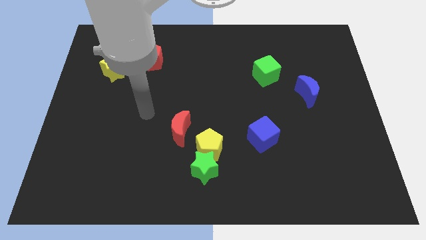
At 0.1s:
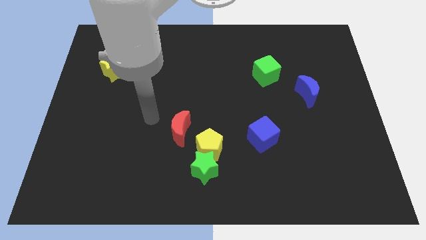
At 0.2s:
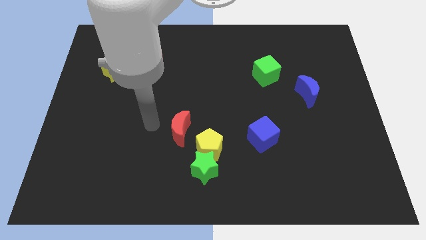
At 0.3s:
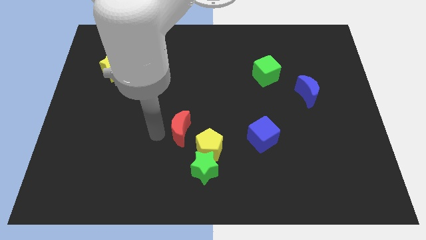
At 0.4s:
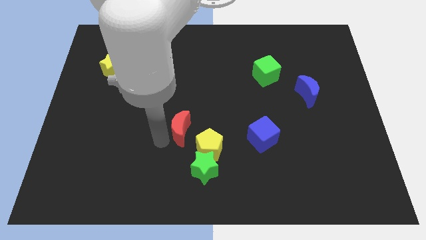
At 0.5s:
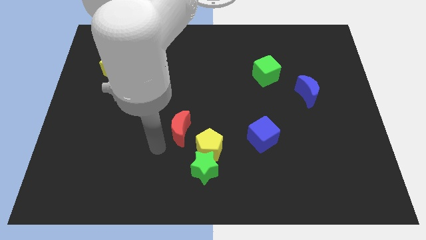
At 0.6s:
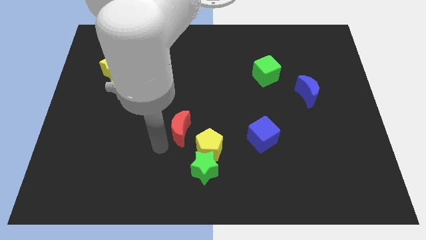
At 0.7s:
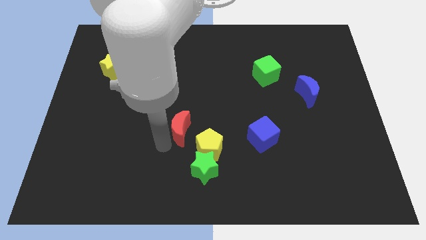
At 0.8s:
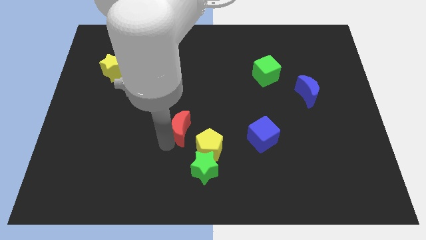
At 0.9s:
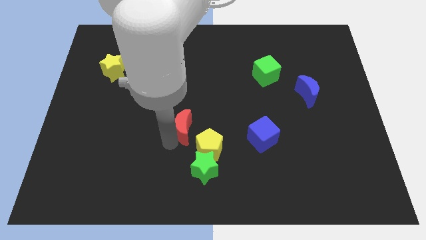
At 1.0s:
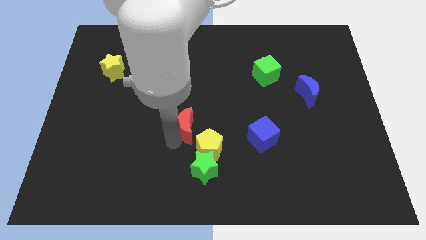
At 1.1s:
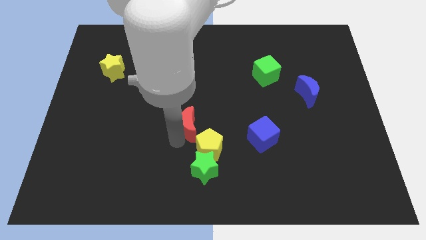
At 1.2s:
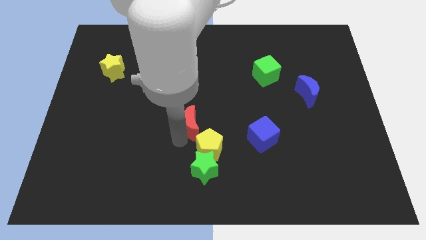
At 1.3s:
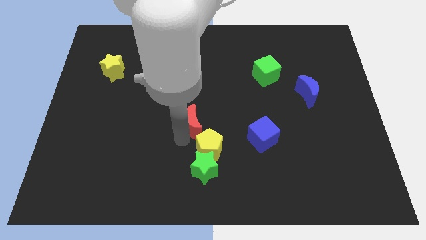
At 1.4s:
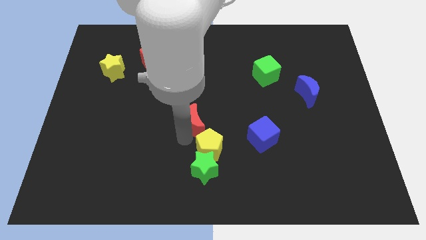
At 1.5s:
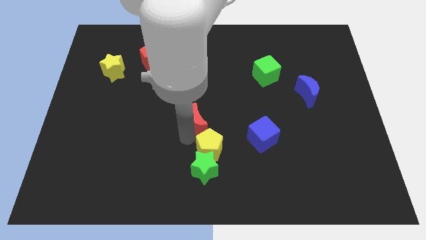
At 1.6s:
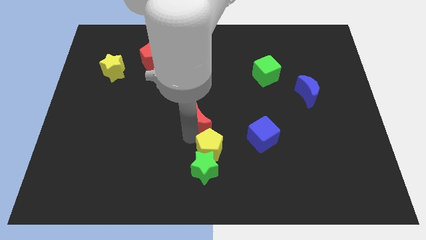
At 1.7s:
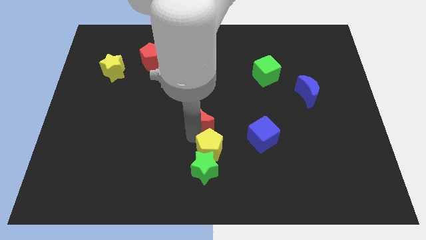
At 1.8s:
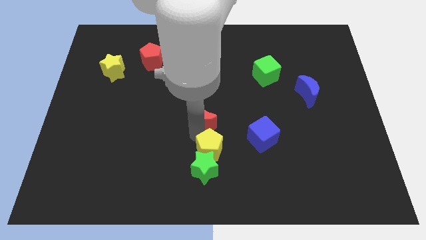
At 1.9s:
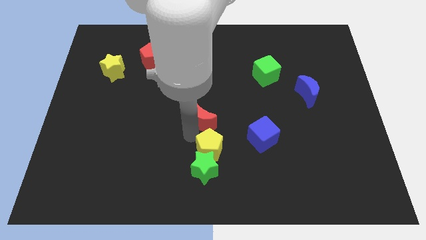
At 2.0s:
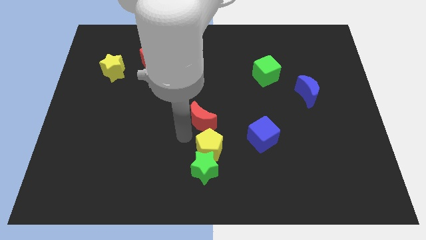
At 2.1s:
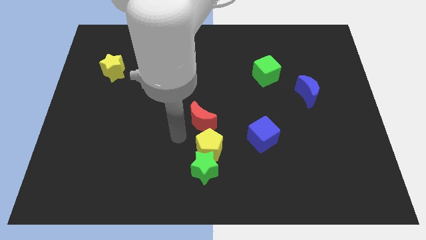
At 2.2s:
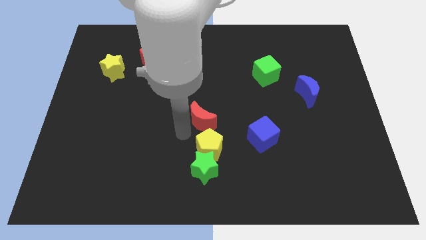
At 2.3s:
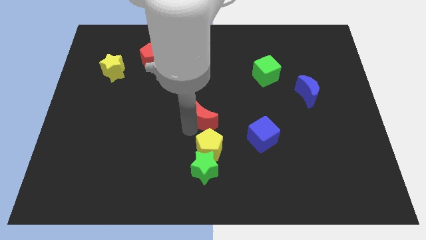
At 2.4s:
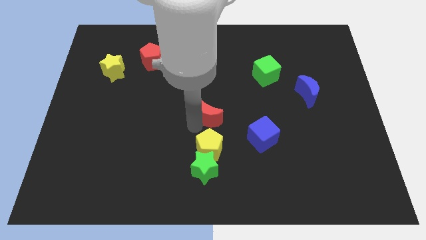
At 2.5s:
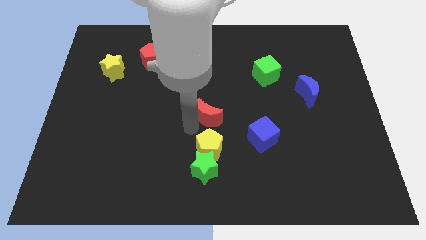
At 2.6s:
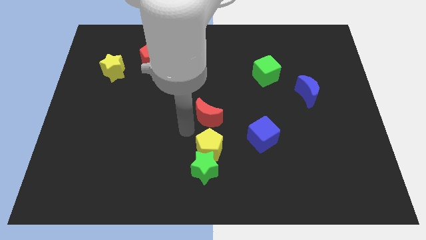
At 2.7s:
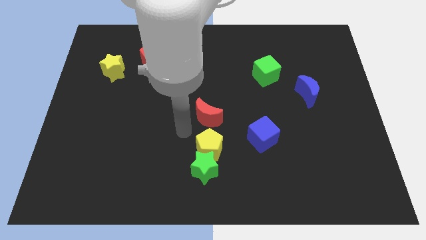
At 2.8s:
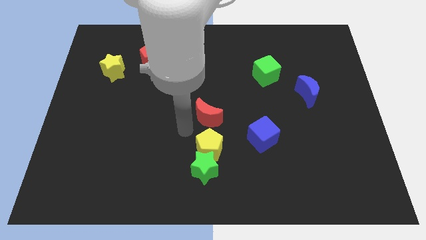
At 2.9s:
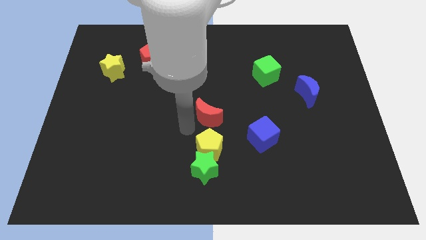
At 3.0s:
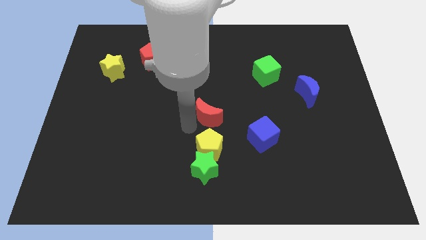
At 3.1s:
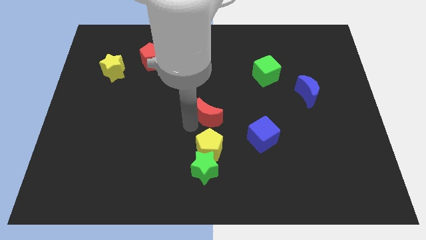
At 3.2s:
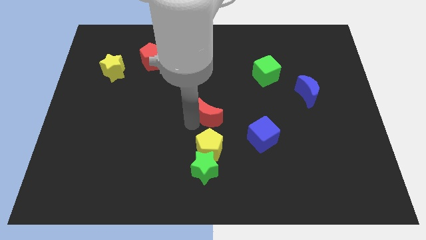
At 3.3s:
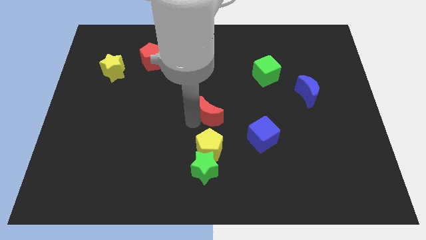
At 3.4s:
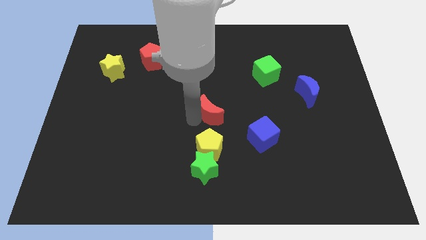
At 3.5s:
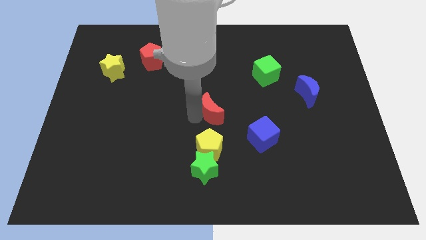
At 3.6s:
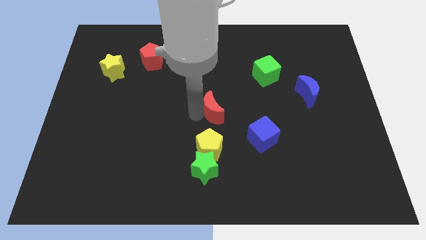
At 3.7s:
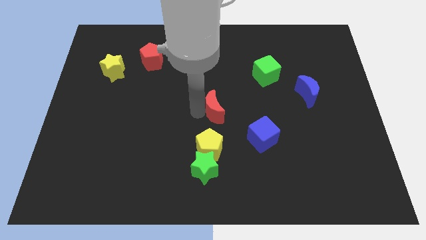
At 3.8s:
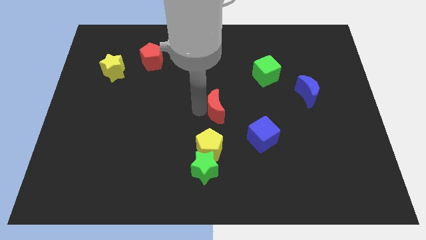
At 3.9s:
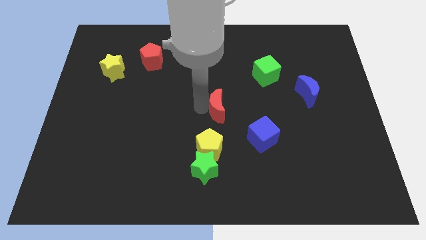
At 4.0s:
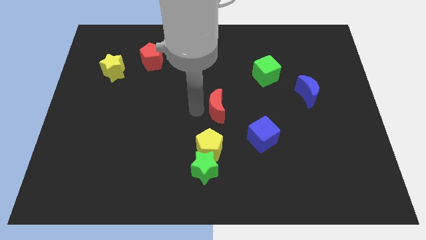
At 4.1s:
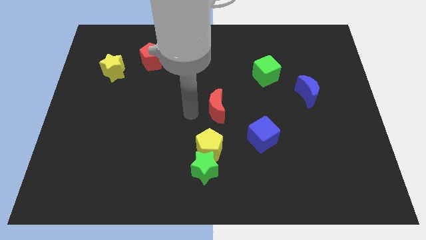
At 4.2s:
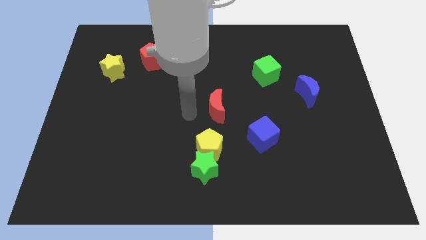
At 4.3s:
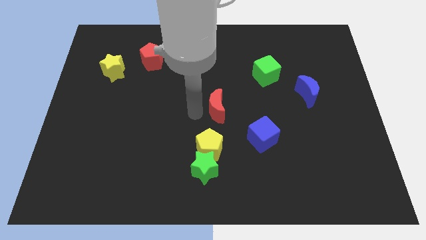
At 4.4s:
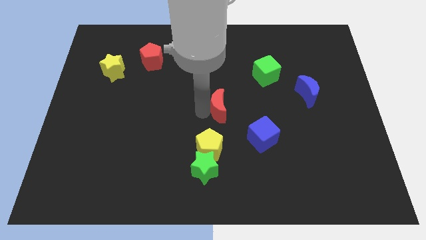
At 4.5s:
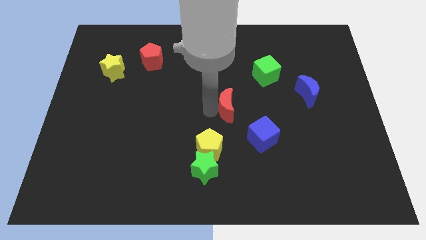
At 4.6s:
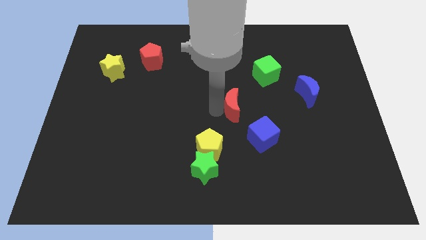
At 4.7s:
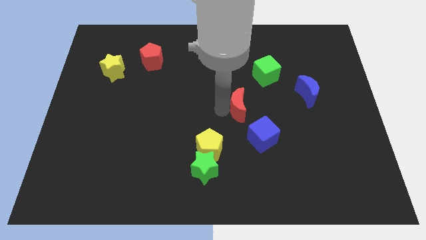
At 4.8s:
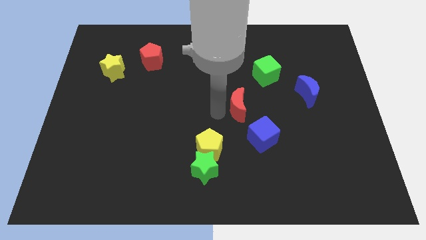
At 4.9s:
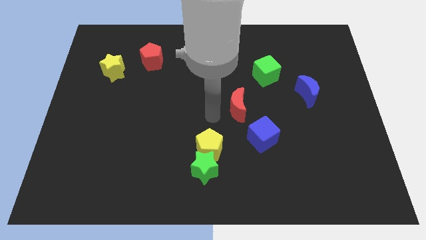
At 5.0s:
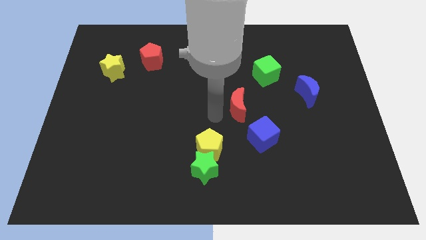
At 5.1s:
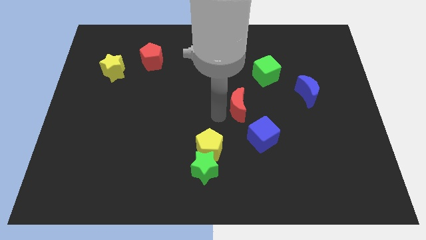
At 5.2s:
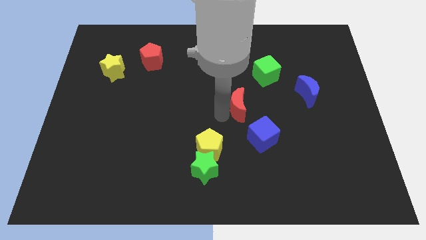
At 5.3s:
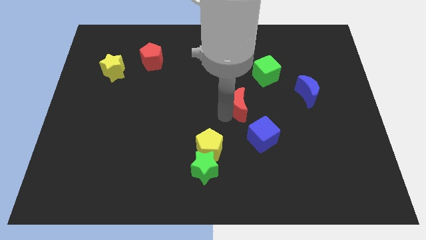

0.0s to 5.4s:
put the red moon above the blue cube

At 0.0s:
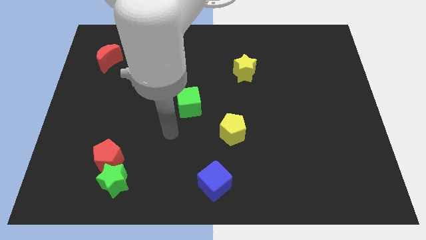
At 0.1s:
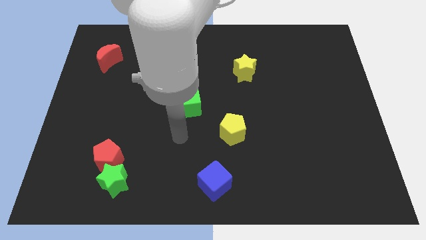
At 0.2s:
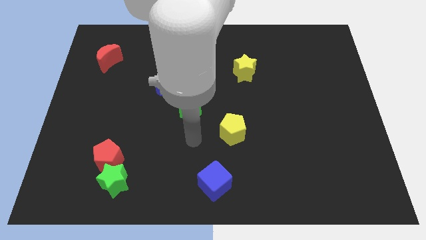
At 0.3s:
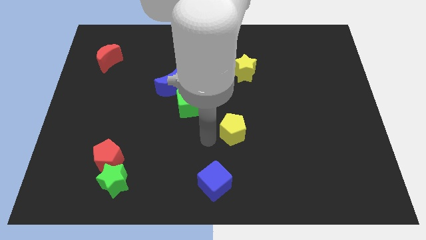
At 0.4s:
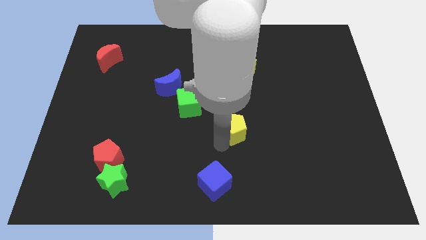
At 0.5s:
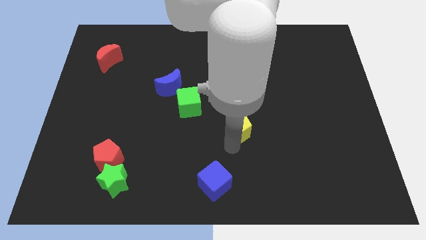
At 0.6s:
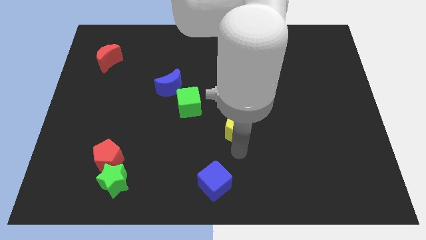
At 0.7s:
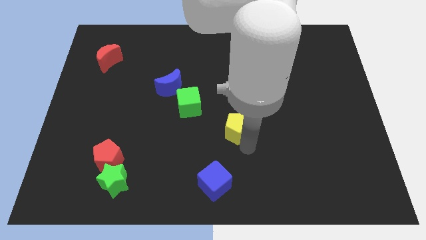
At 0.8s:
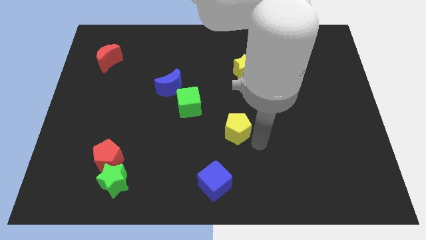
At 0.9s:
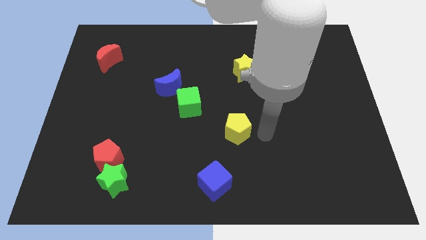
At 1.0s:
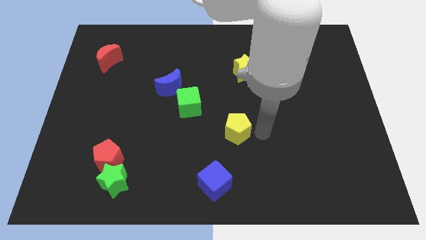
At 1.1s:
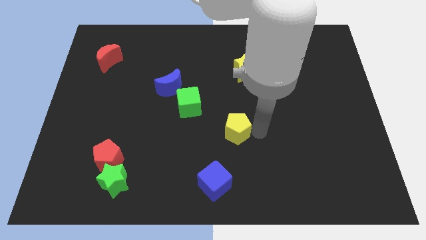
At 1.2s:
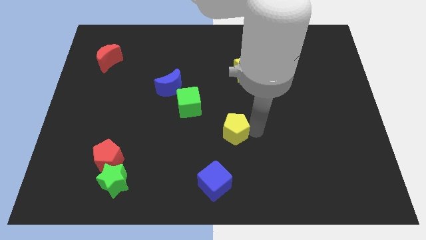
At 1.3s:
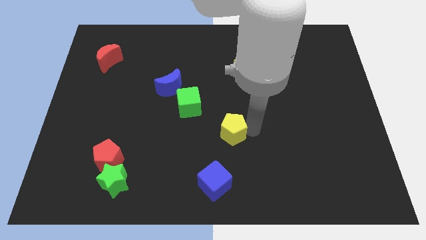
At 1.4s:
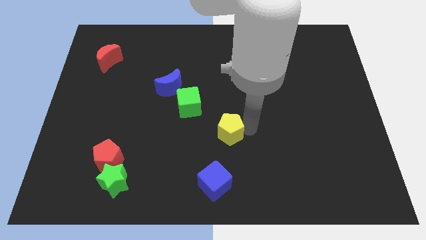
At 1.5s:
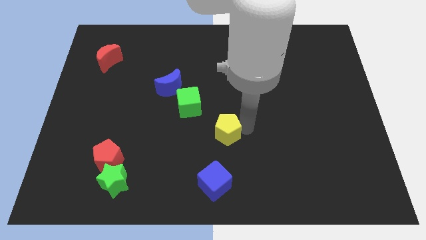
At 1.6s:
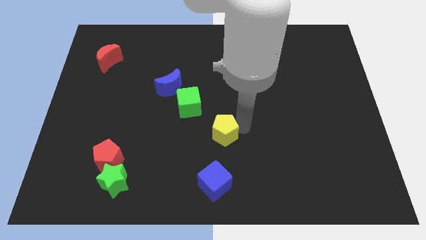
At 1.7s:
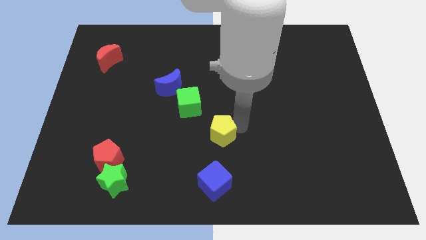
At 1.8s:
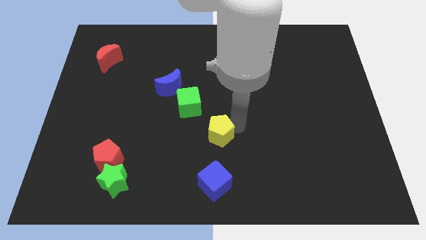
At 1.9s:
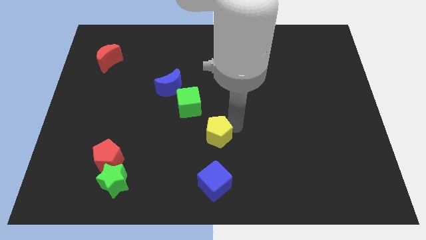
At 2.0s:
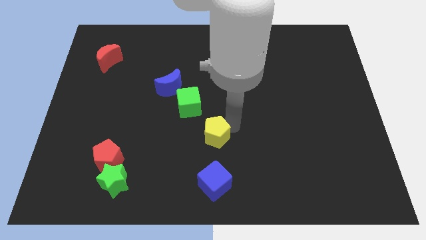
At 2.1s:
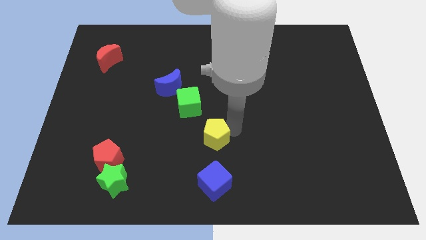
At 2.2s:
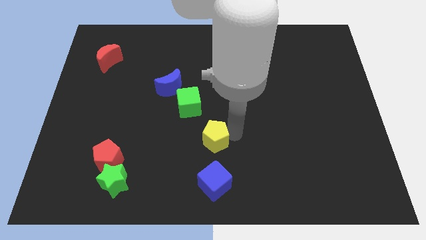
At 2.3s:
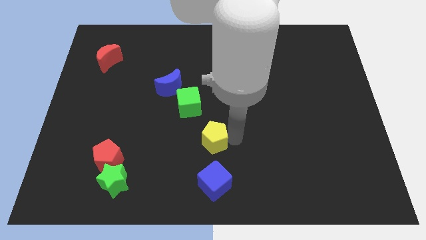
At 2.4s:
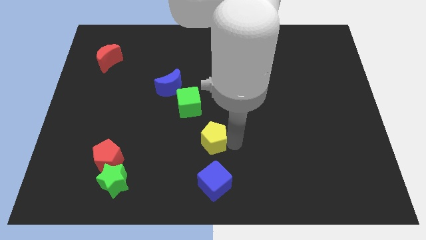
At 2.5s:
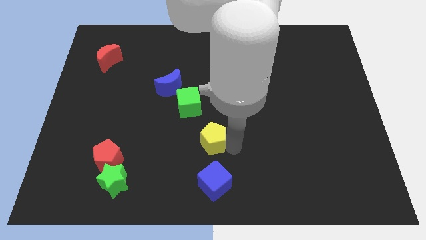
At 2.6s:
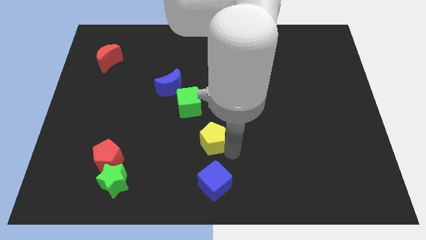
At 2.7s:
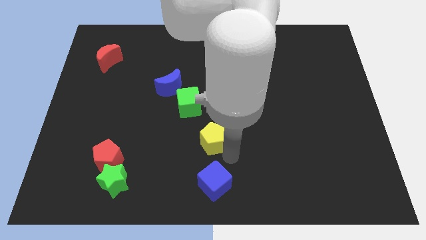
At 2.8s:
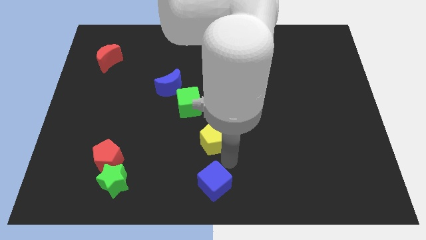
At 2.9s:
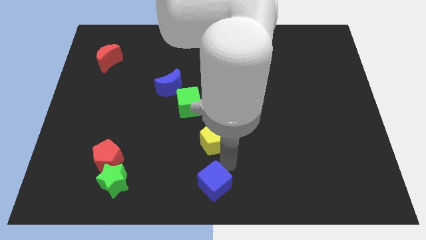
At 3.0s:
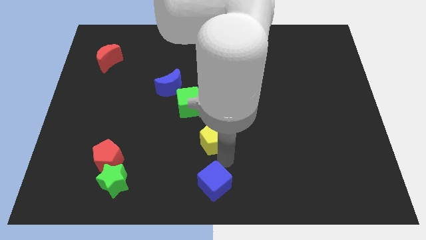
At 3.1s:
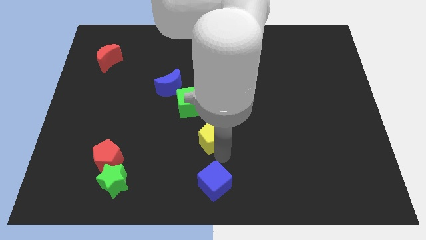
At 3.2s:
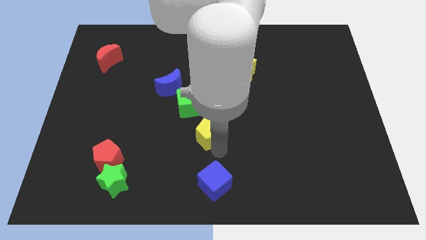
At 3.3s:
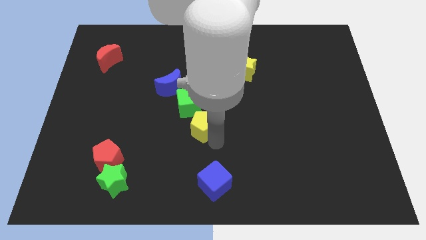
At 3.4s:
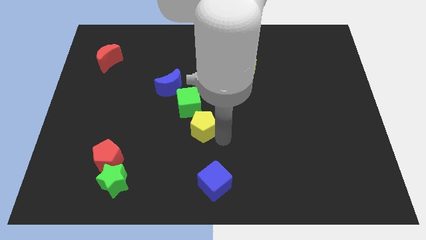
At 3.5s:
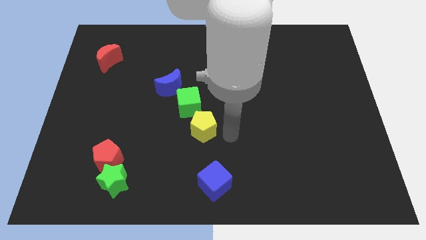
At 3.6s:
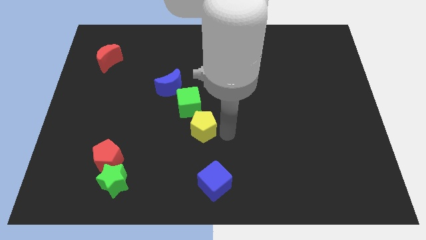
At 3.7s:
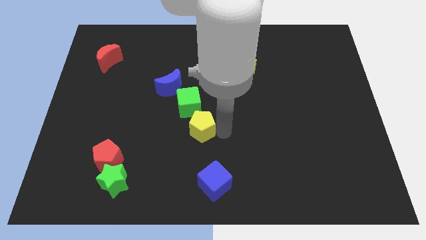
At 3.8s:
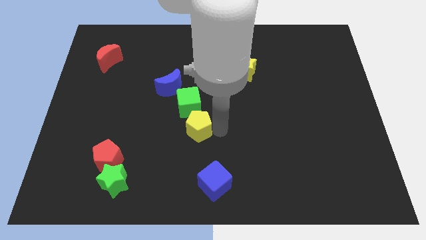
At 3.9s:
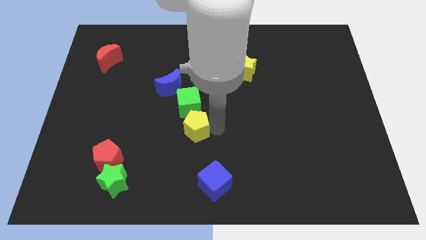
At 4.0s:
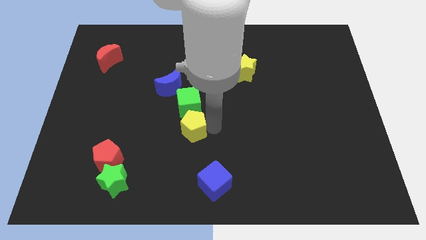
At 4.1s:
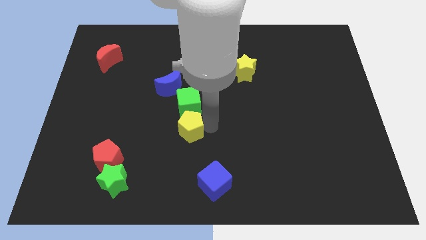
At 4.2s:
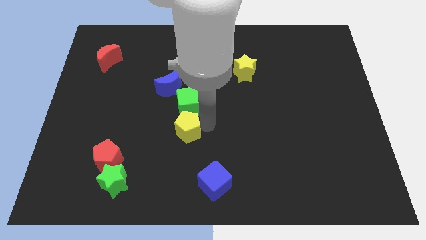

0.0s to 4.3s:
move the yellow pentagon to the bottom side of the blue moon
